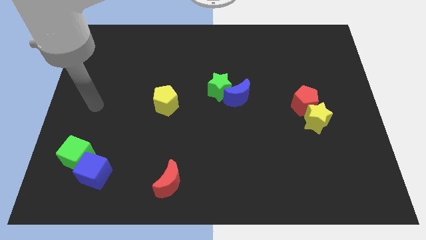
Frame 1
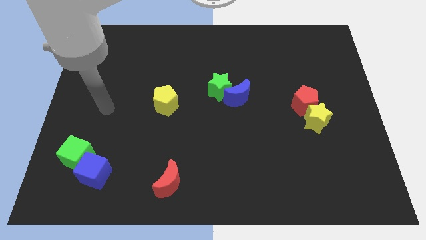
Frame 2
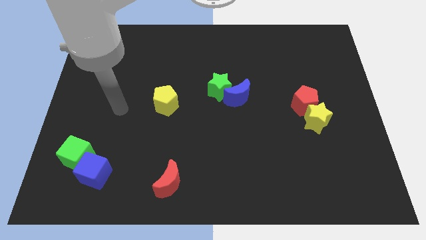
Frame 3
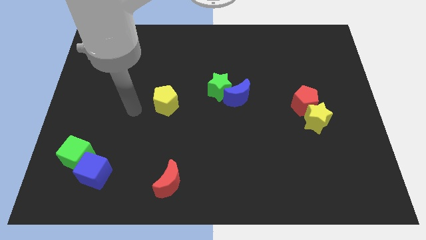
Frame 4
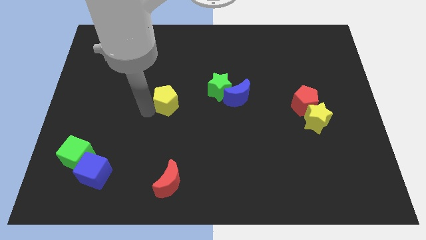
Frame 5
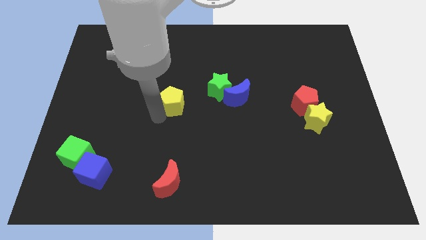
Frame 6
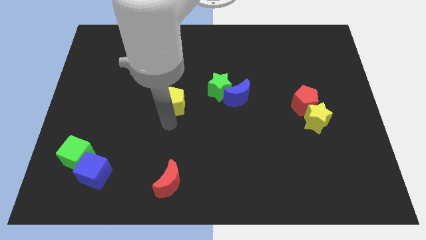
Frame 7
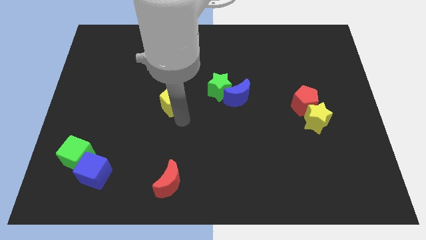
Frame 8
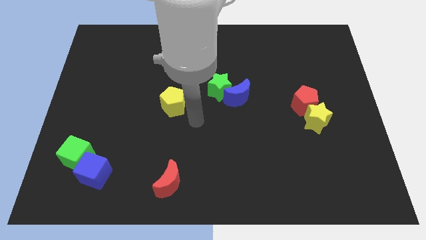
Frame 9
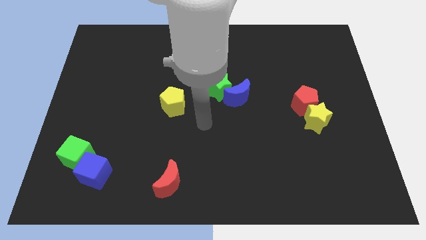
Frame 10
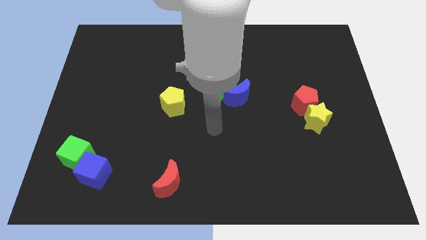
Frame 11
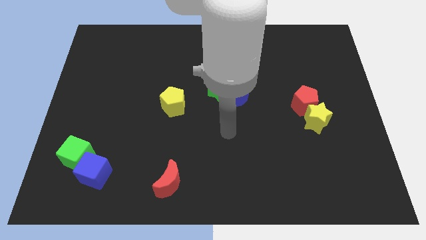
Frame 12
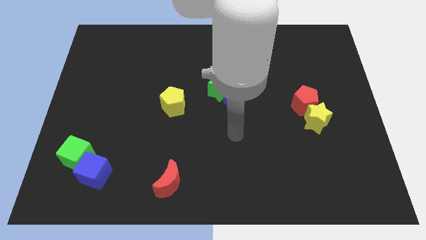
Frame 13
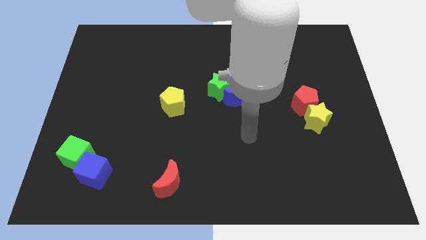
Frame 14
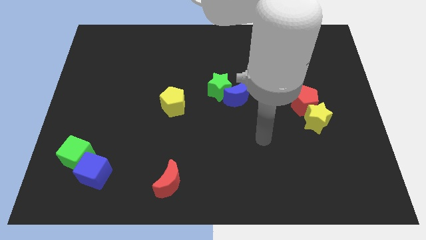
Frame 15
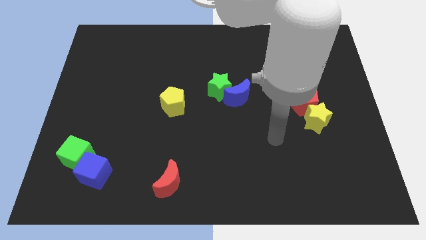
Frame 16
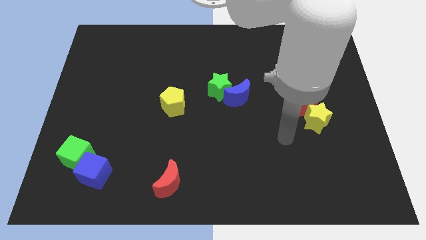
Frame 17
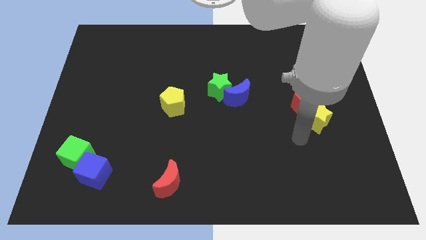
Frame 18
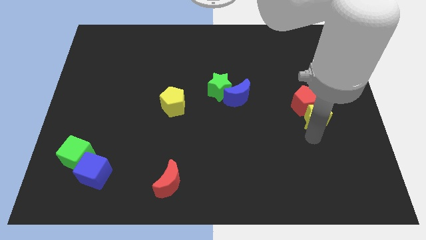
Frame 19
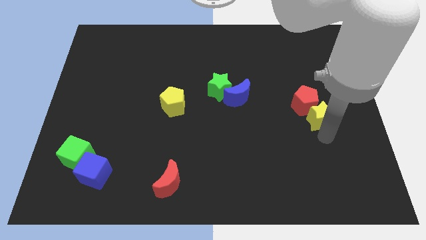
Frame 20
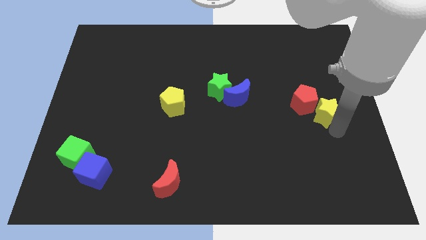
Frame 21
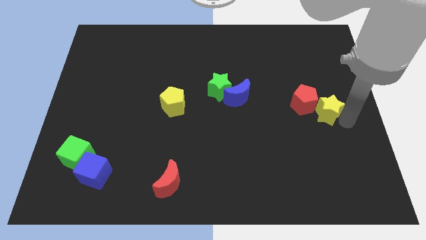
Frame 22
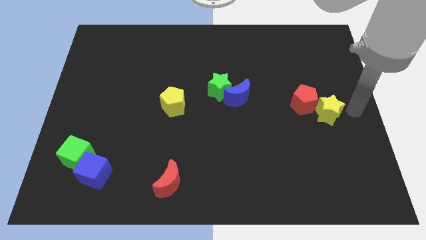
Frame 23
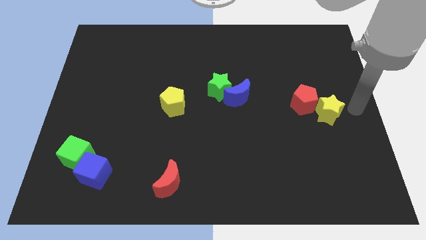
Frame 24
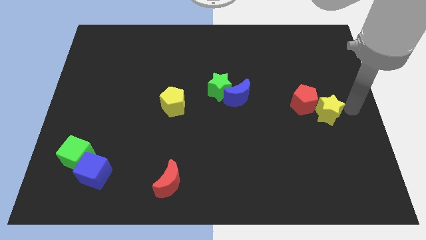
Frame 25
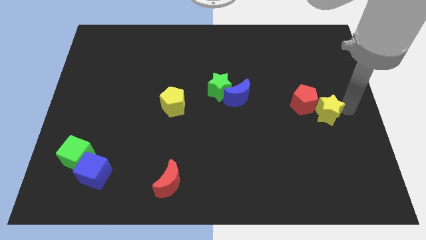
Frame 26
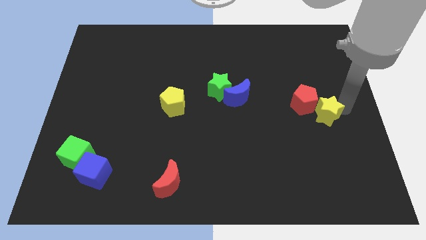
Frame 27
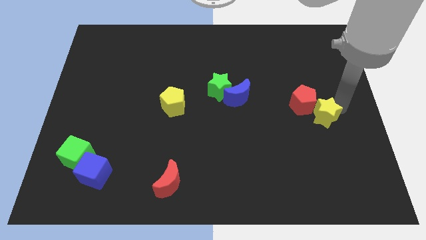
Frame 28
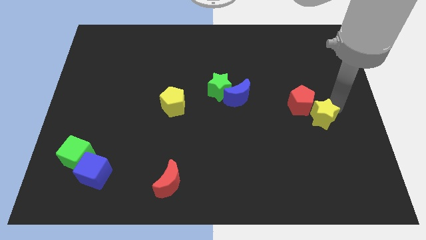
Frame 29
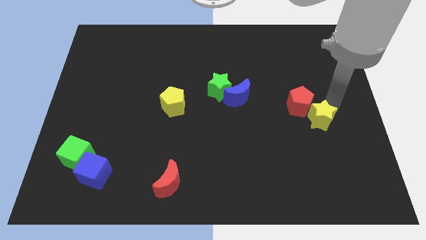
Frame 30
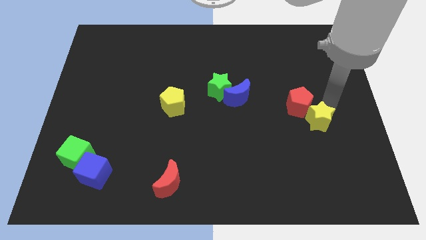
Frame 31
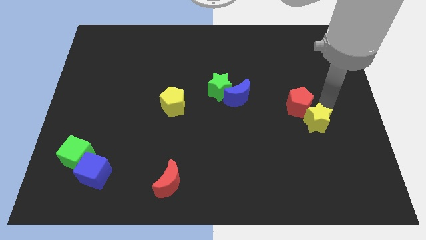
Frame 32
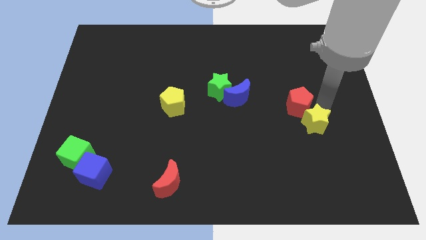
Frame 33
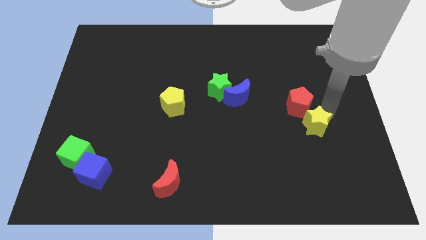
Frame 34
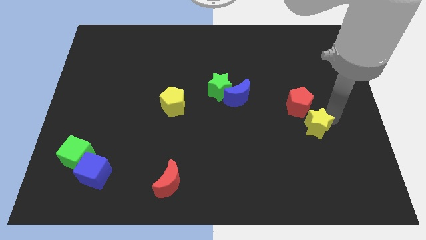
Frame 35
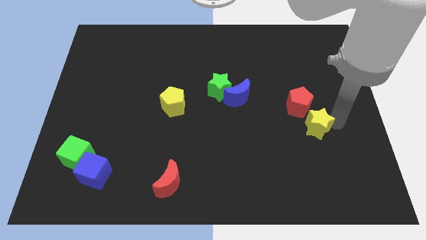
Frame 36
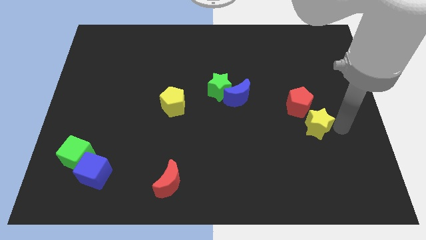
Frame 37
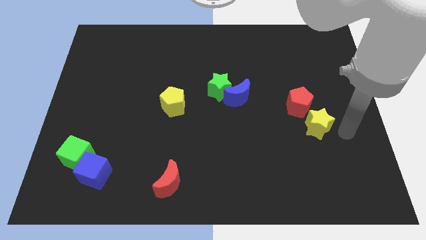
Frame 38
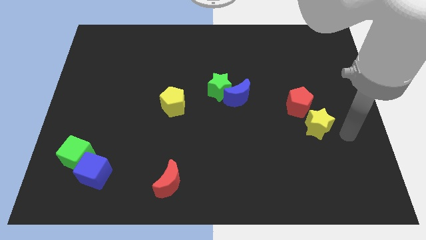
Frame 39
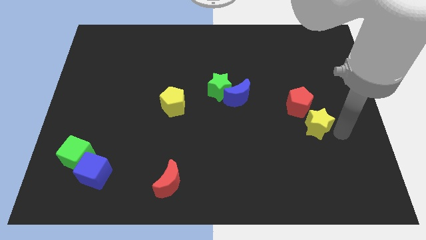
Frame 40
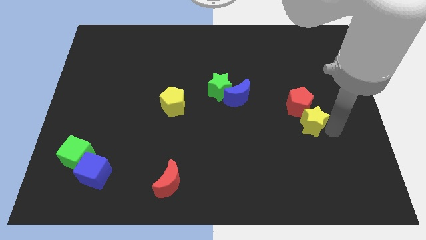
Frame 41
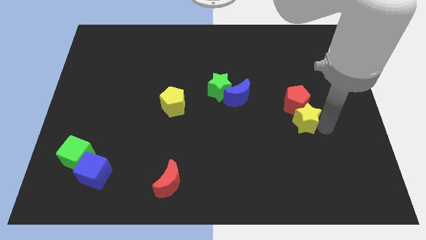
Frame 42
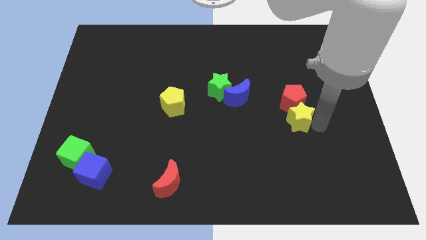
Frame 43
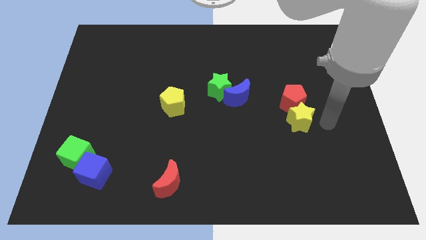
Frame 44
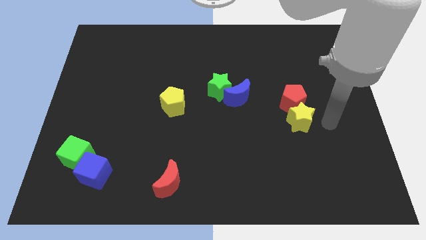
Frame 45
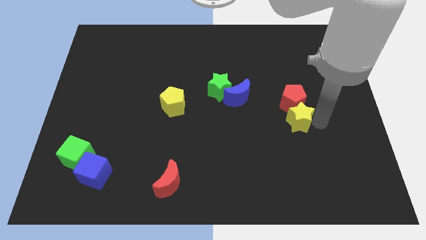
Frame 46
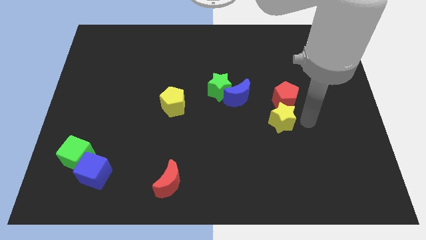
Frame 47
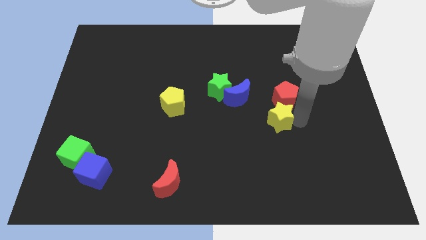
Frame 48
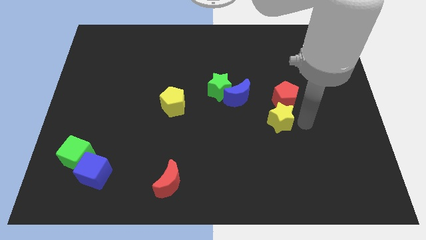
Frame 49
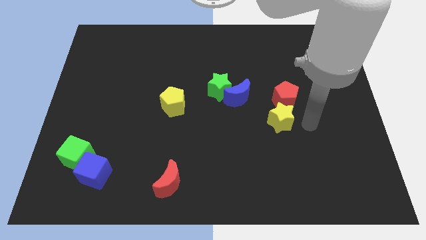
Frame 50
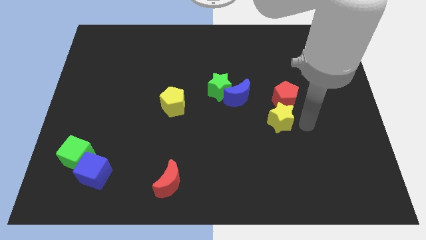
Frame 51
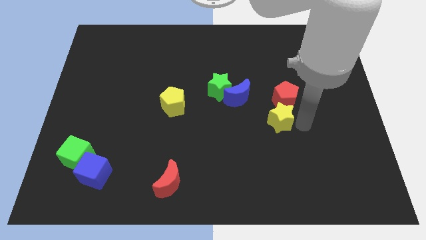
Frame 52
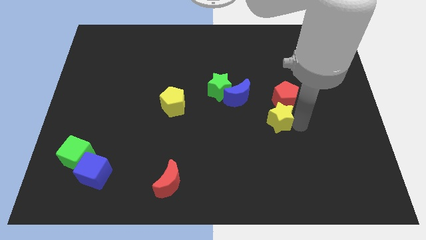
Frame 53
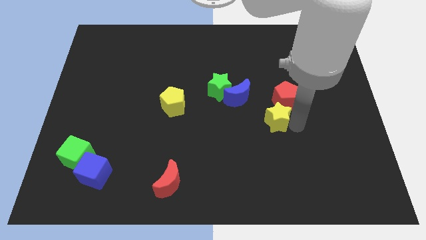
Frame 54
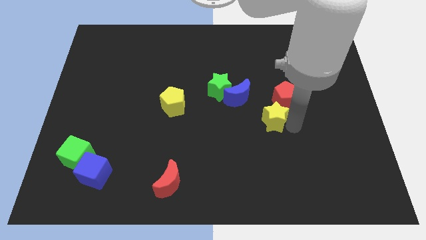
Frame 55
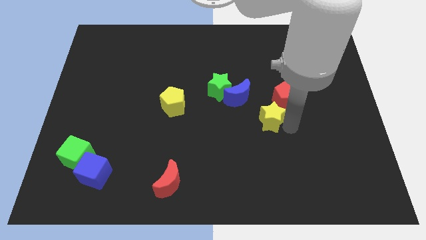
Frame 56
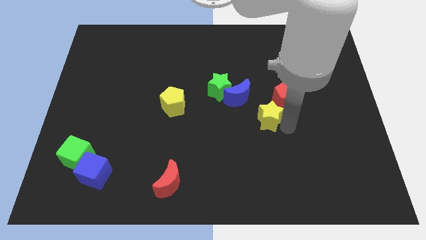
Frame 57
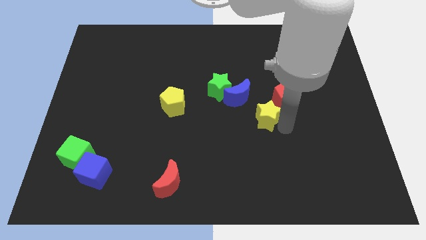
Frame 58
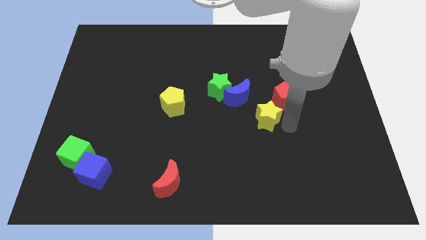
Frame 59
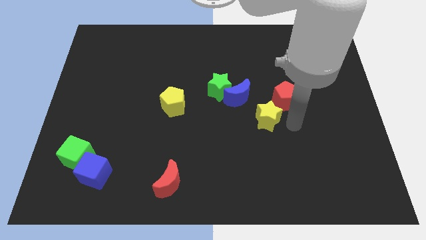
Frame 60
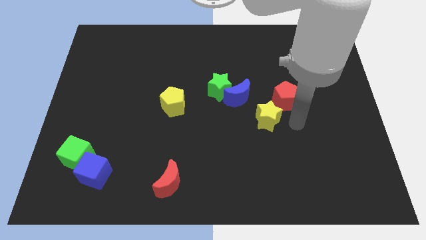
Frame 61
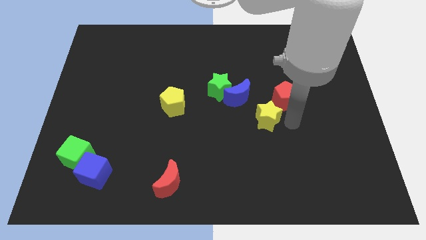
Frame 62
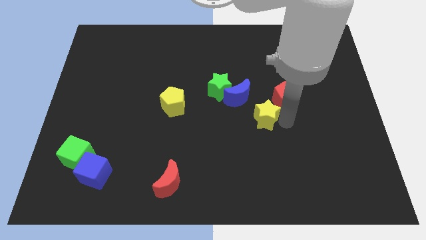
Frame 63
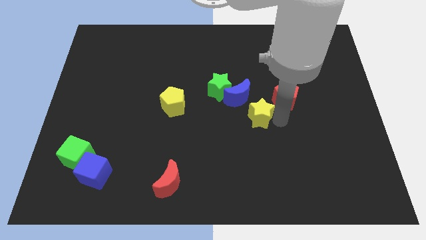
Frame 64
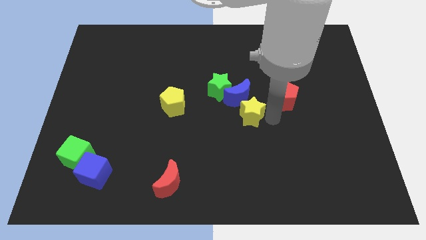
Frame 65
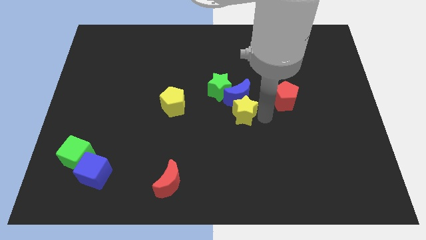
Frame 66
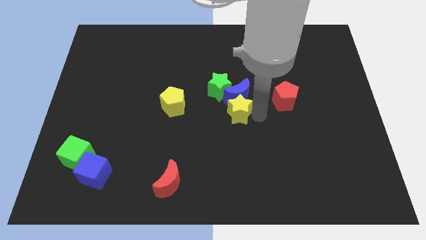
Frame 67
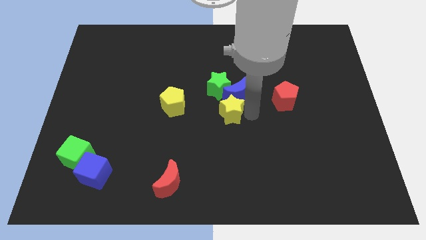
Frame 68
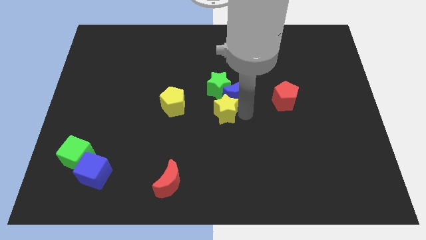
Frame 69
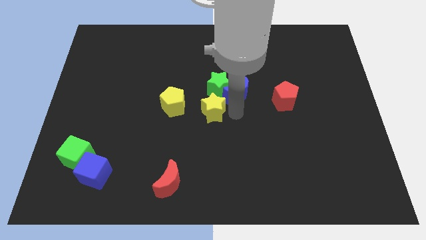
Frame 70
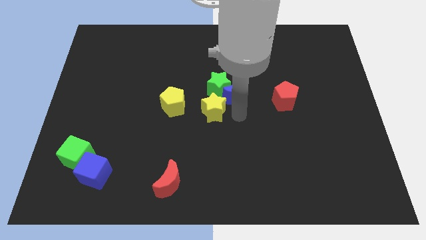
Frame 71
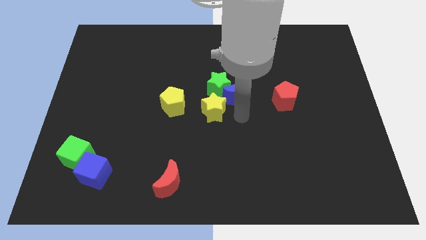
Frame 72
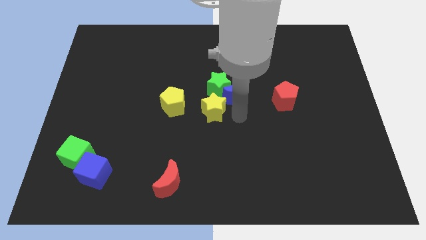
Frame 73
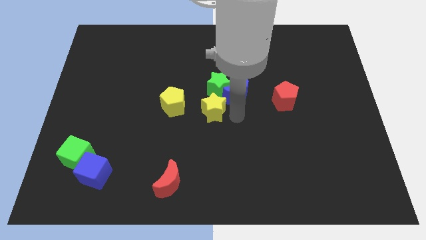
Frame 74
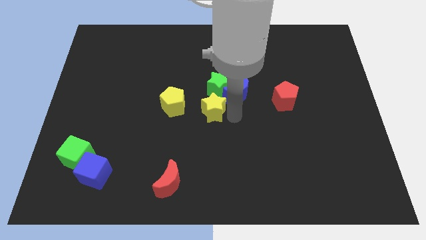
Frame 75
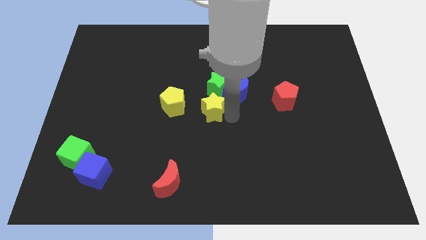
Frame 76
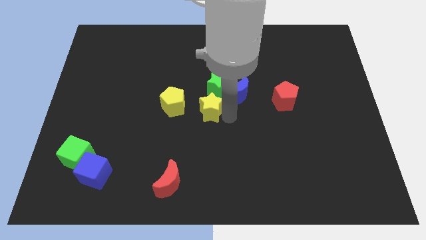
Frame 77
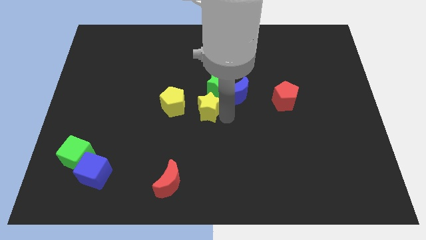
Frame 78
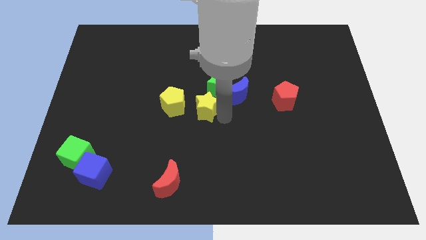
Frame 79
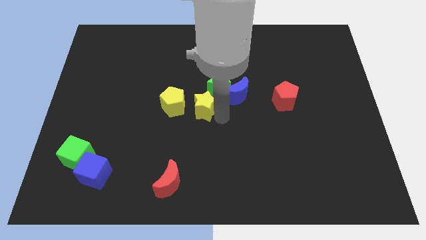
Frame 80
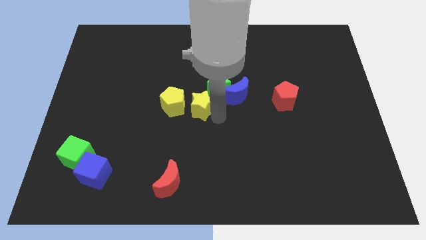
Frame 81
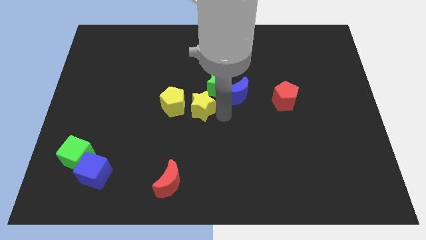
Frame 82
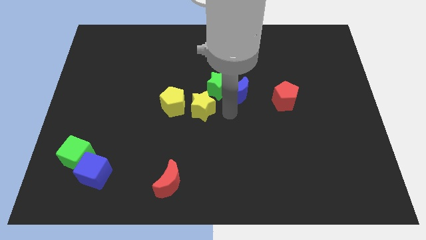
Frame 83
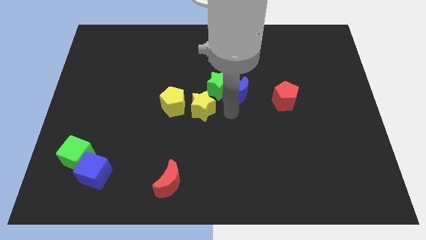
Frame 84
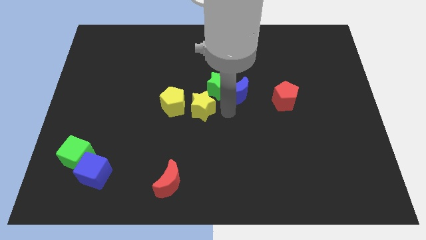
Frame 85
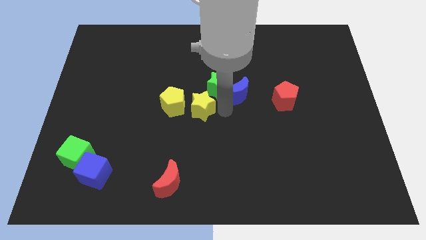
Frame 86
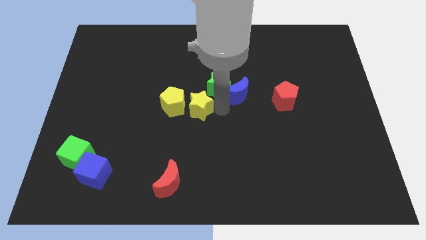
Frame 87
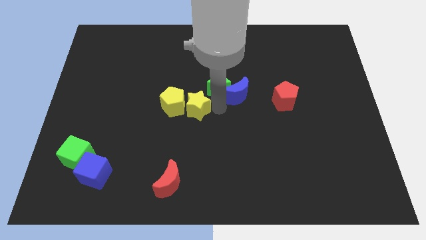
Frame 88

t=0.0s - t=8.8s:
put the yellow star towards the yellow pentagon
